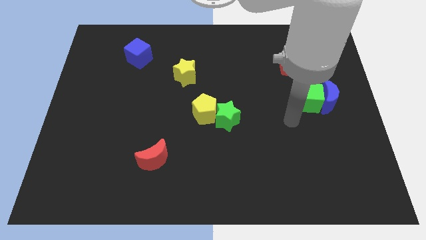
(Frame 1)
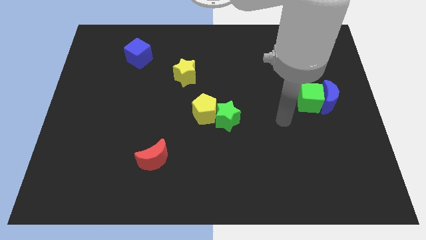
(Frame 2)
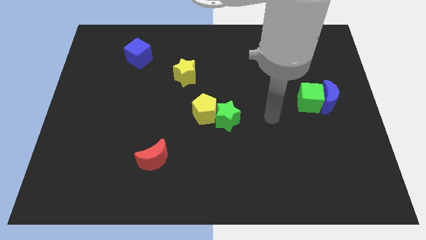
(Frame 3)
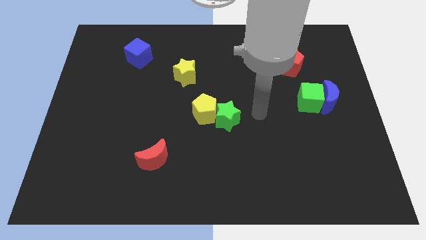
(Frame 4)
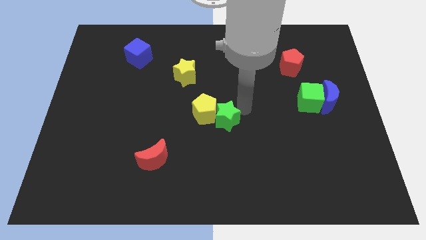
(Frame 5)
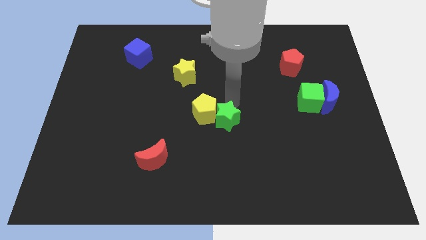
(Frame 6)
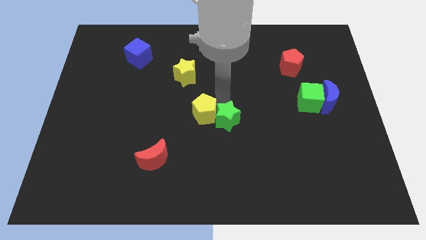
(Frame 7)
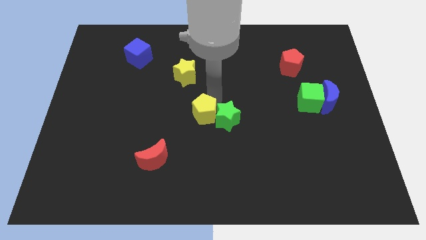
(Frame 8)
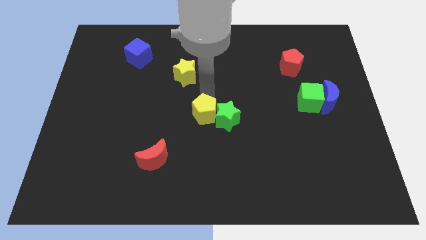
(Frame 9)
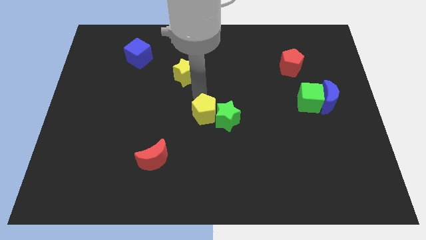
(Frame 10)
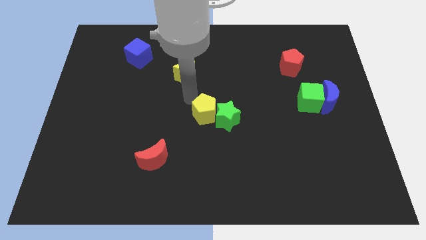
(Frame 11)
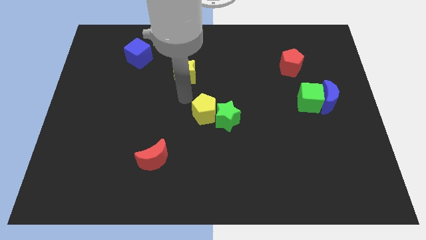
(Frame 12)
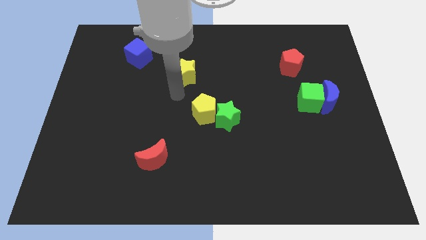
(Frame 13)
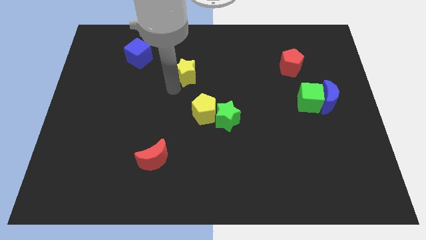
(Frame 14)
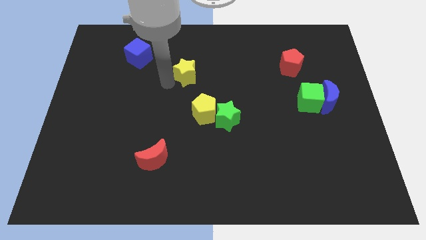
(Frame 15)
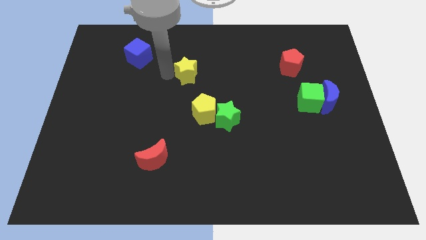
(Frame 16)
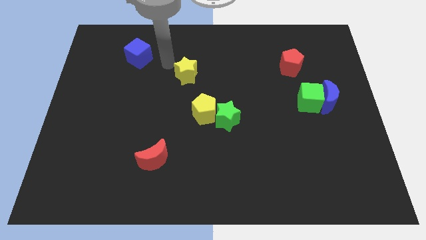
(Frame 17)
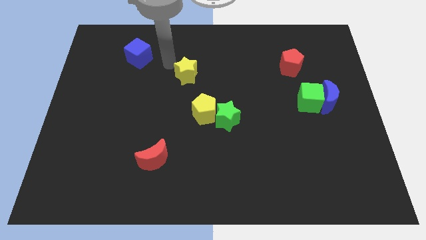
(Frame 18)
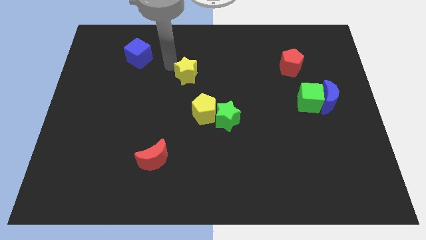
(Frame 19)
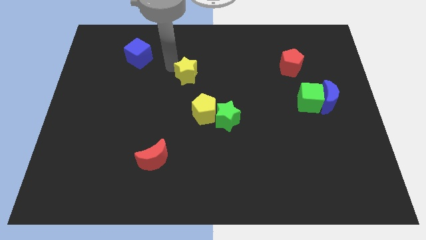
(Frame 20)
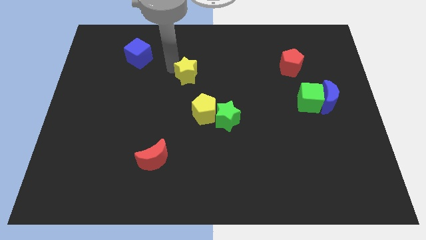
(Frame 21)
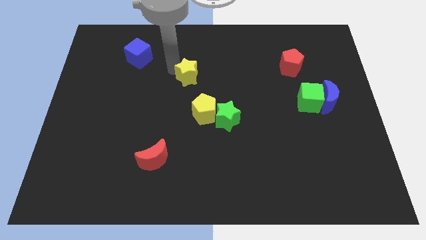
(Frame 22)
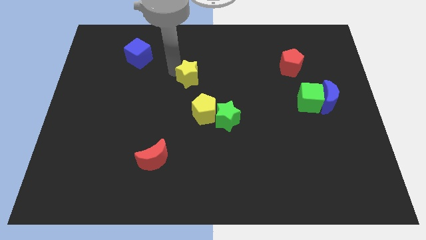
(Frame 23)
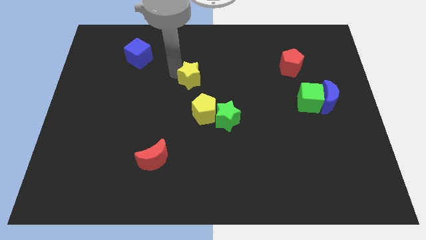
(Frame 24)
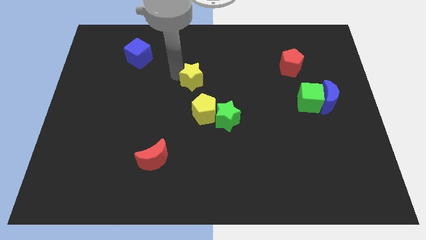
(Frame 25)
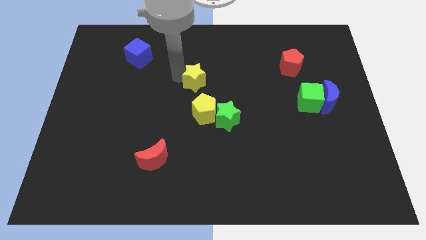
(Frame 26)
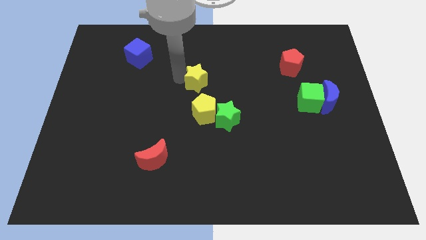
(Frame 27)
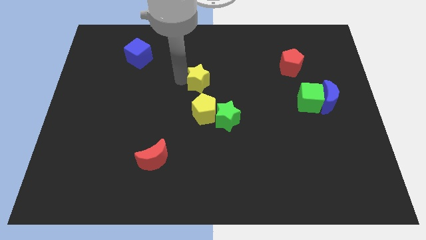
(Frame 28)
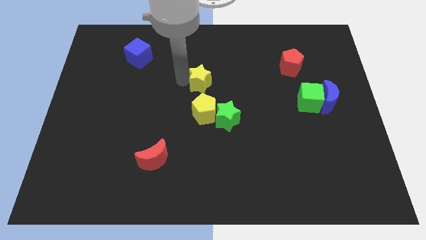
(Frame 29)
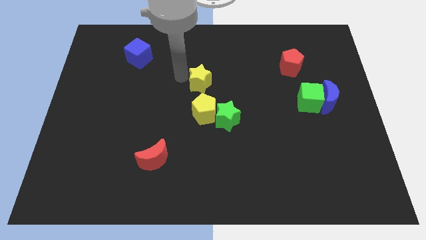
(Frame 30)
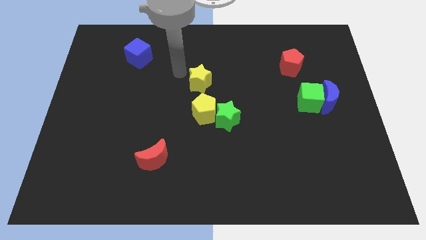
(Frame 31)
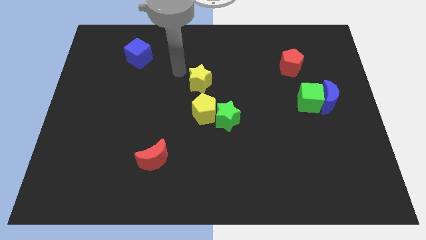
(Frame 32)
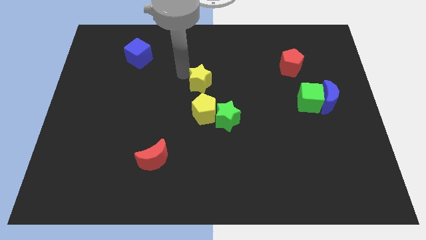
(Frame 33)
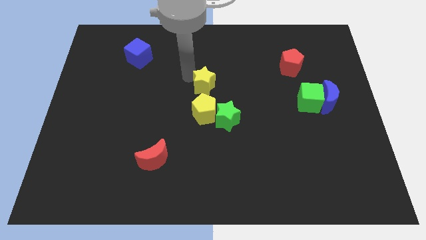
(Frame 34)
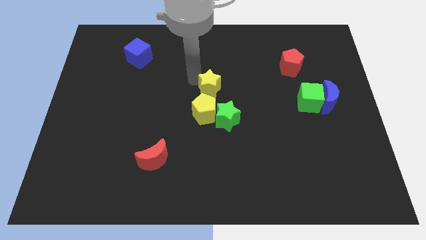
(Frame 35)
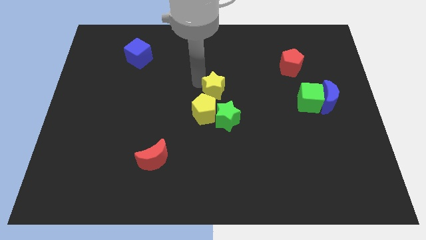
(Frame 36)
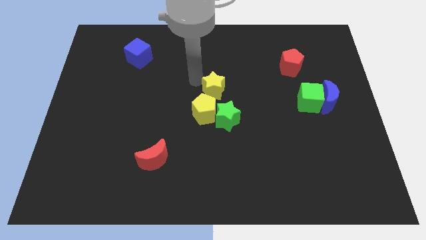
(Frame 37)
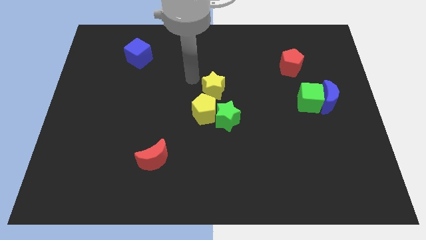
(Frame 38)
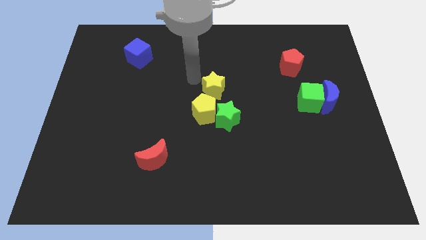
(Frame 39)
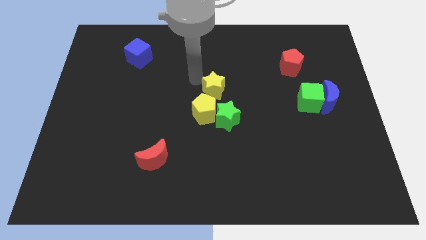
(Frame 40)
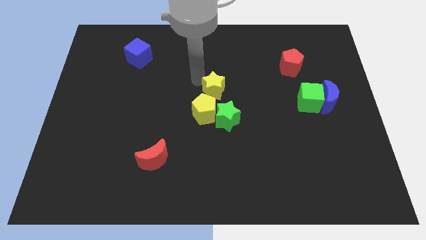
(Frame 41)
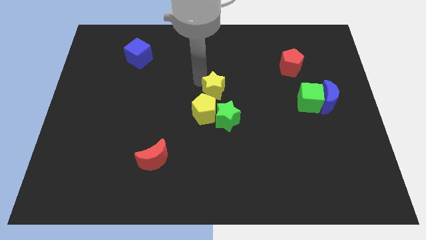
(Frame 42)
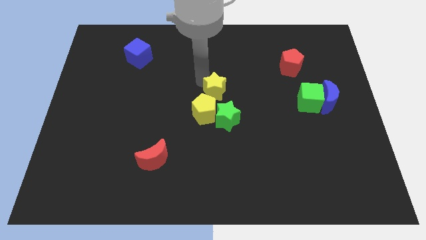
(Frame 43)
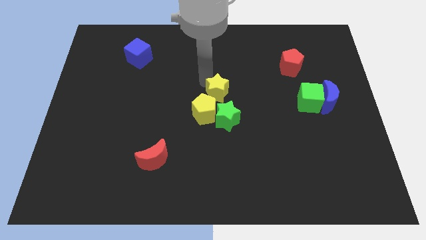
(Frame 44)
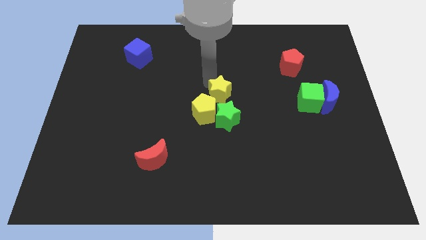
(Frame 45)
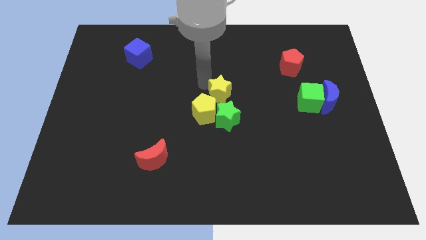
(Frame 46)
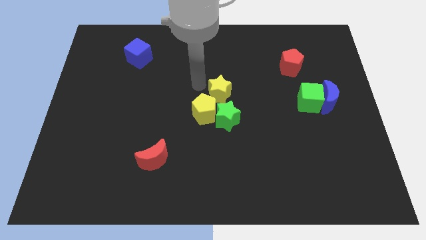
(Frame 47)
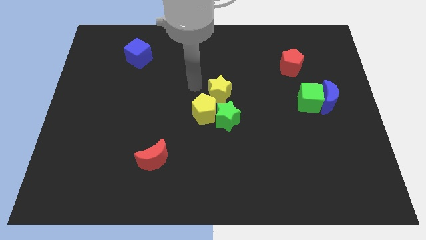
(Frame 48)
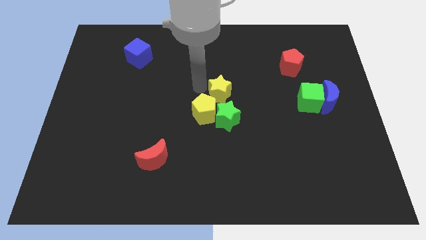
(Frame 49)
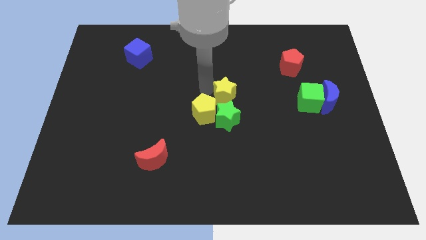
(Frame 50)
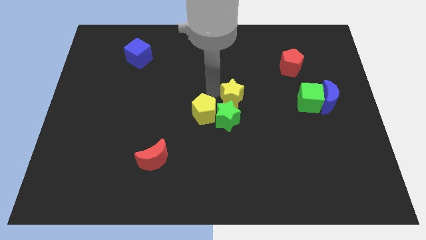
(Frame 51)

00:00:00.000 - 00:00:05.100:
put the yellow star to the top right side of the green star

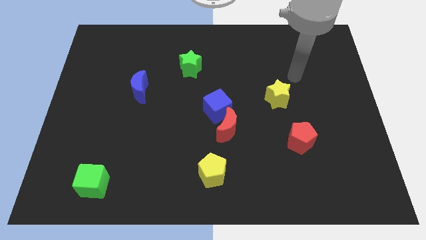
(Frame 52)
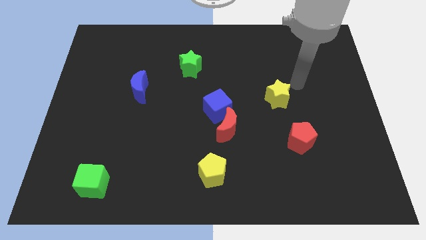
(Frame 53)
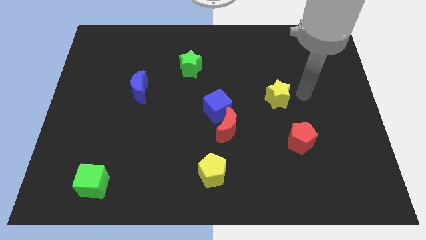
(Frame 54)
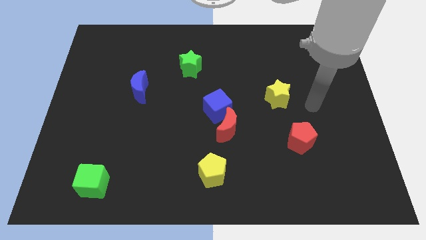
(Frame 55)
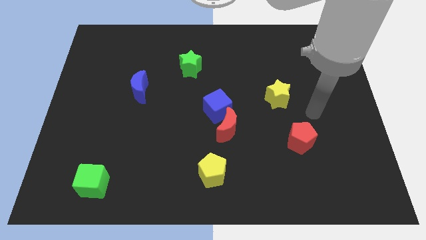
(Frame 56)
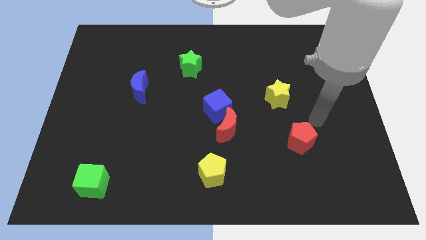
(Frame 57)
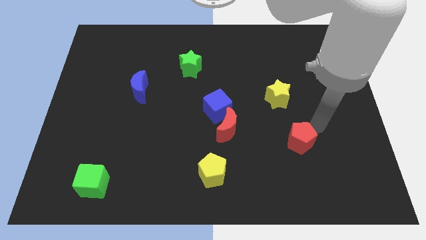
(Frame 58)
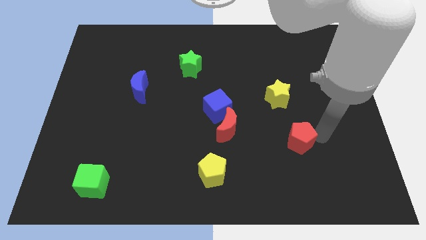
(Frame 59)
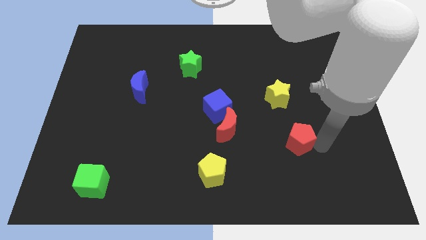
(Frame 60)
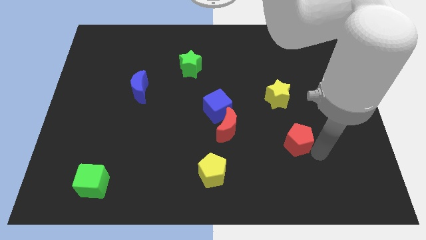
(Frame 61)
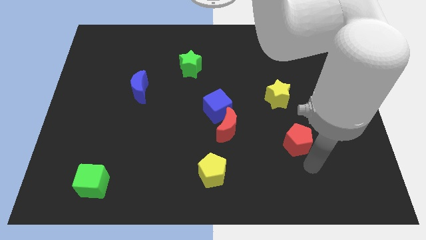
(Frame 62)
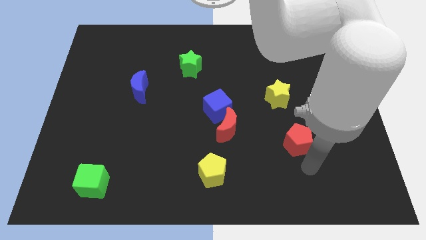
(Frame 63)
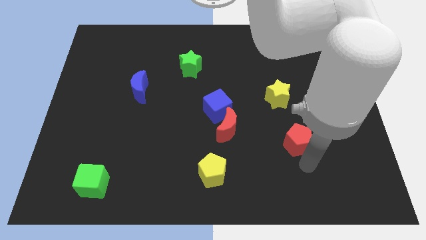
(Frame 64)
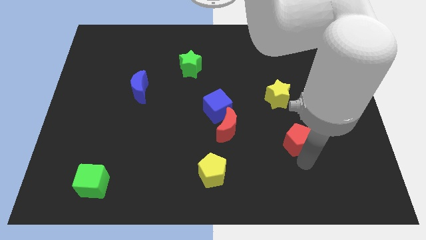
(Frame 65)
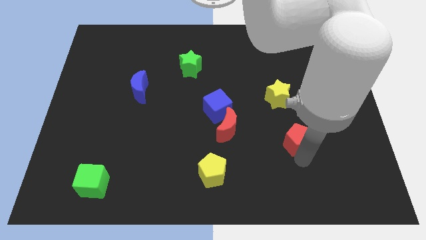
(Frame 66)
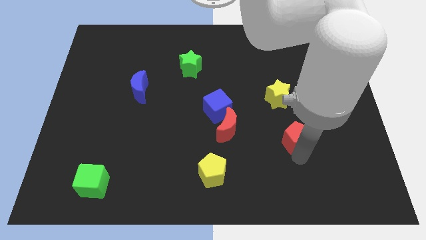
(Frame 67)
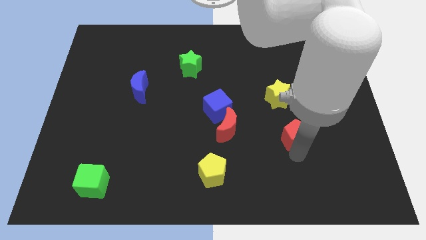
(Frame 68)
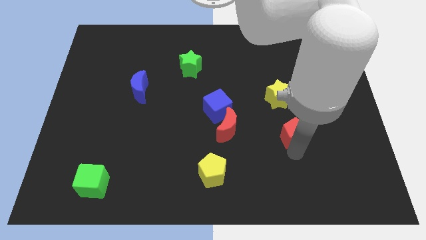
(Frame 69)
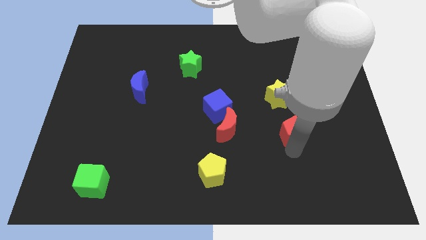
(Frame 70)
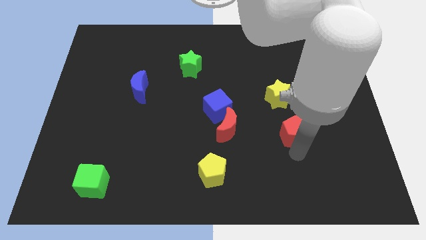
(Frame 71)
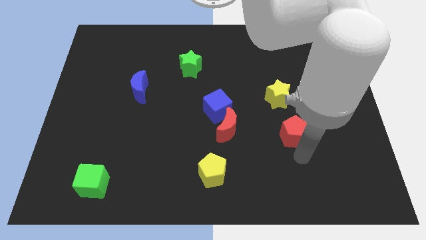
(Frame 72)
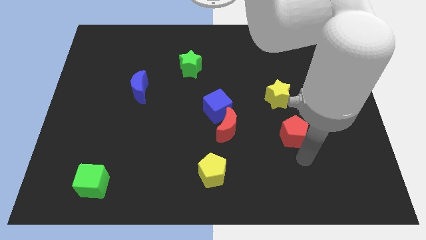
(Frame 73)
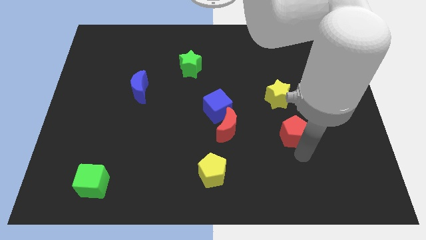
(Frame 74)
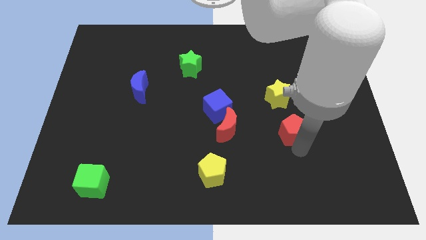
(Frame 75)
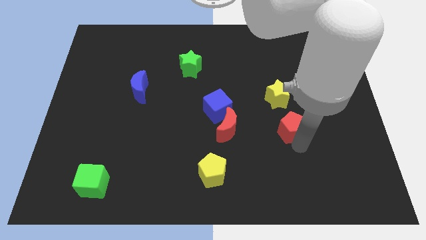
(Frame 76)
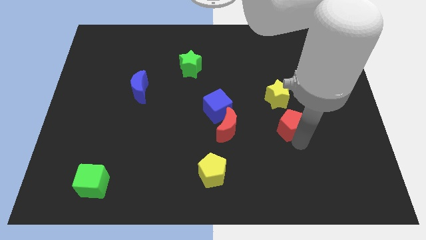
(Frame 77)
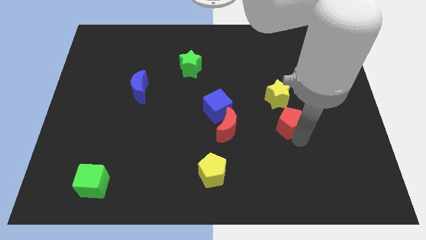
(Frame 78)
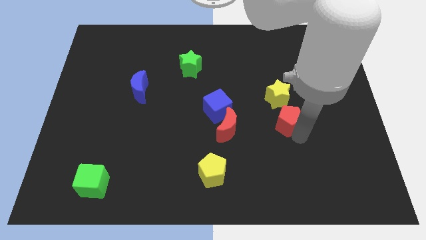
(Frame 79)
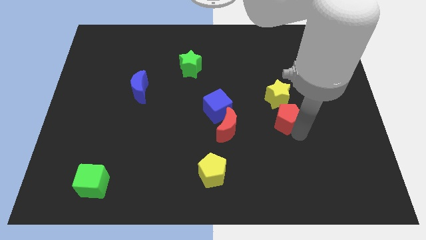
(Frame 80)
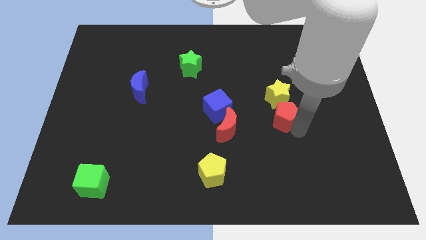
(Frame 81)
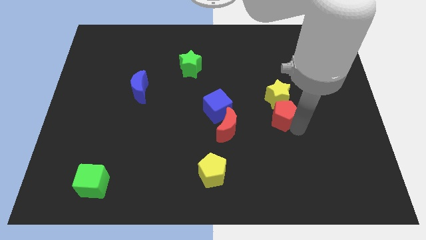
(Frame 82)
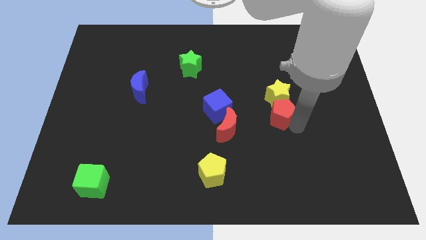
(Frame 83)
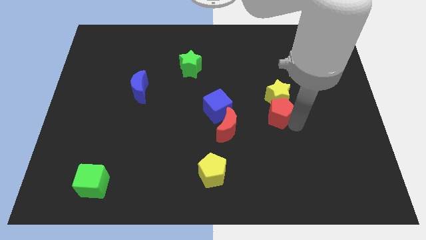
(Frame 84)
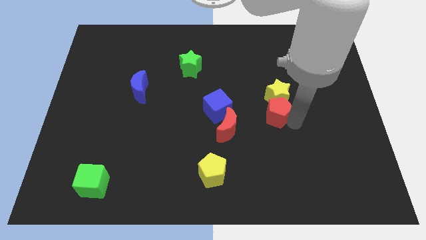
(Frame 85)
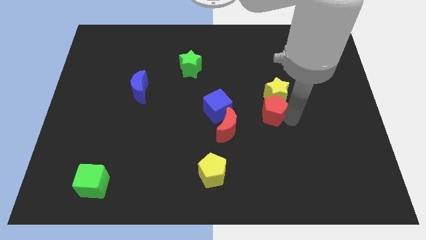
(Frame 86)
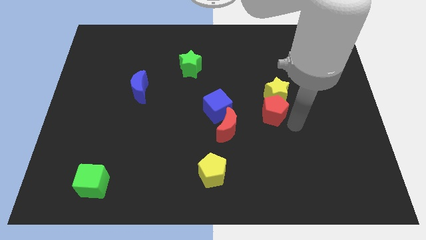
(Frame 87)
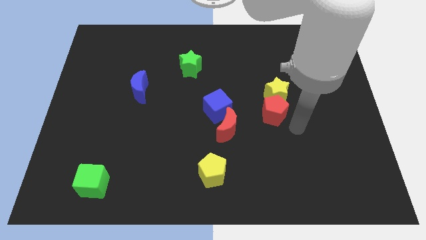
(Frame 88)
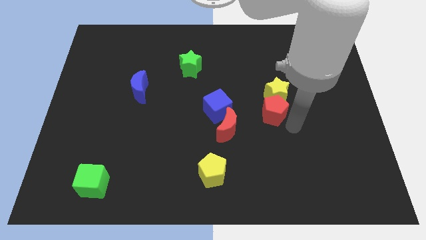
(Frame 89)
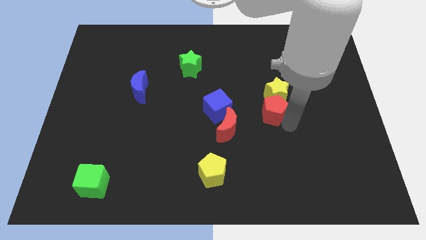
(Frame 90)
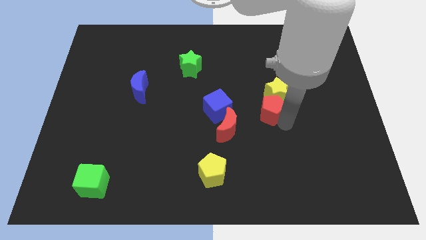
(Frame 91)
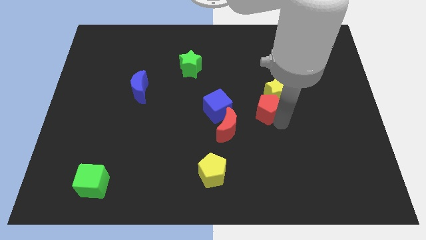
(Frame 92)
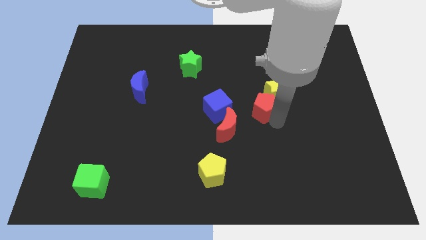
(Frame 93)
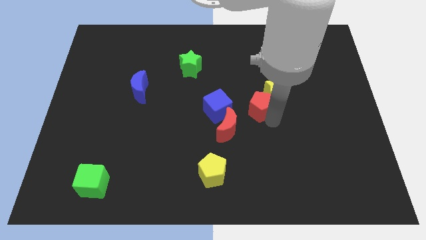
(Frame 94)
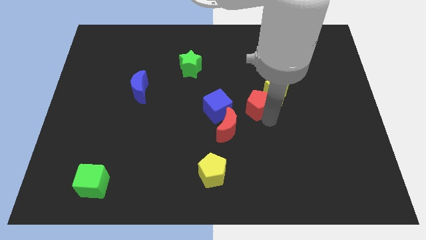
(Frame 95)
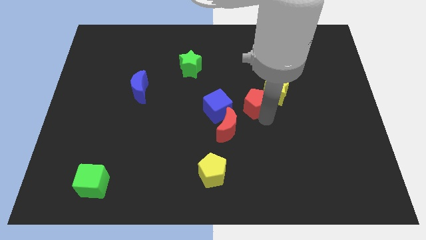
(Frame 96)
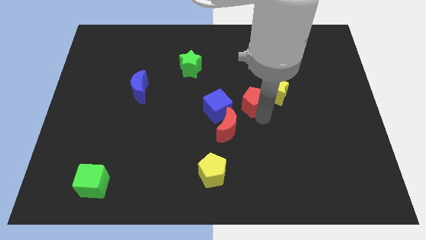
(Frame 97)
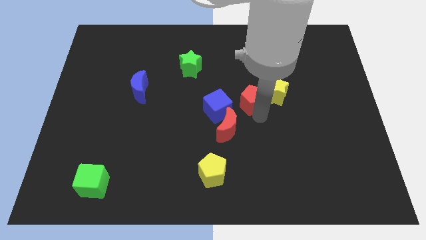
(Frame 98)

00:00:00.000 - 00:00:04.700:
move the red pentagon diagonally up and to the right of the blue cube
